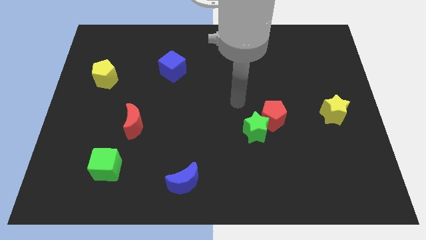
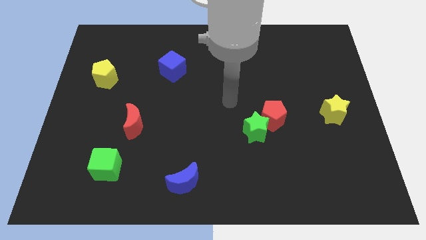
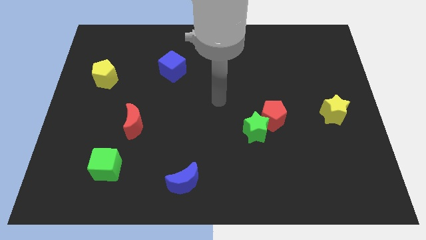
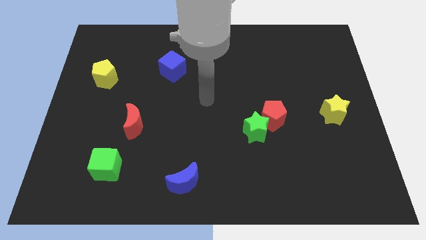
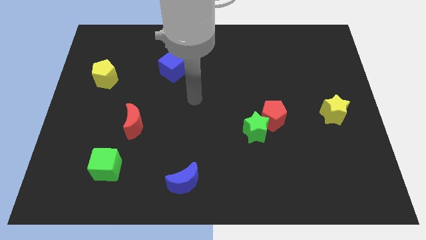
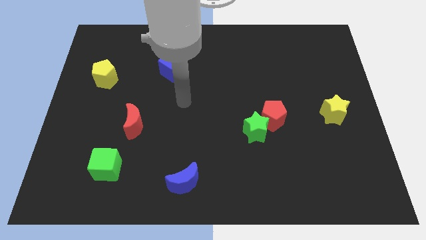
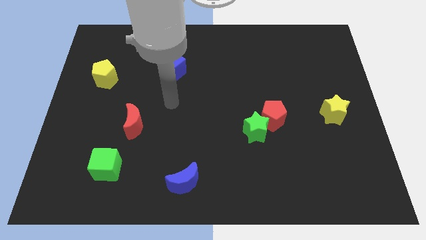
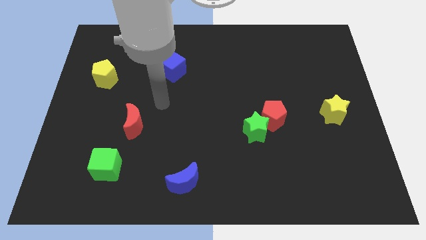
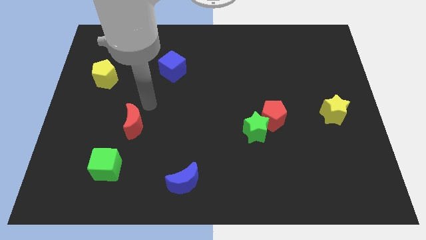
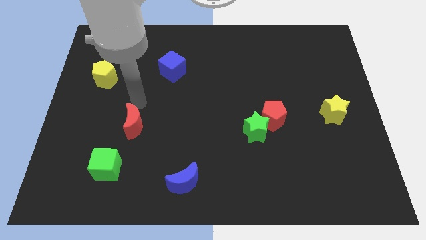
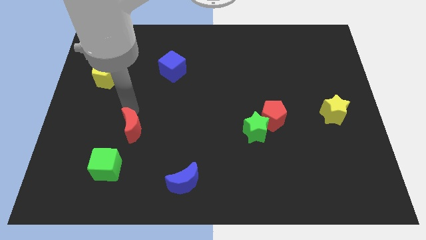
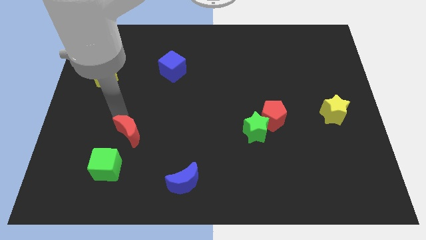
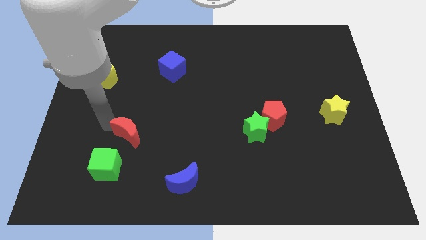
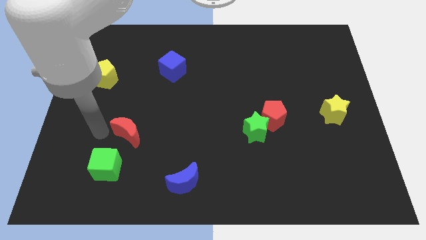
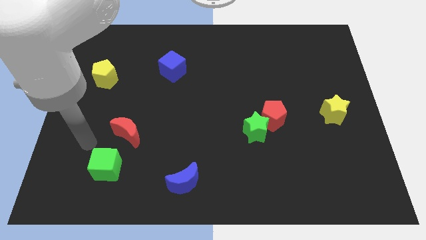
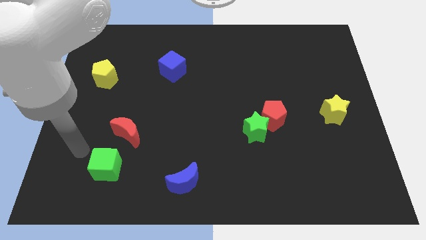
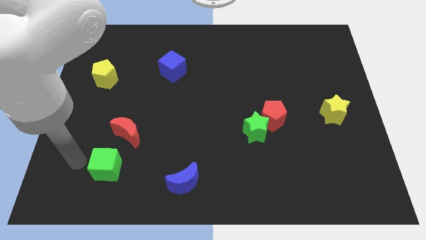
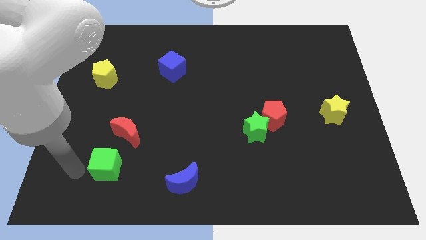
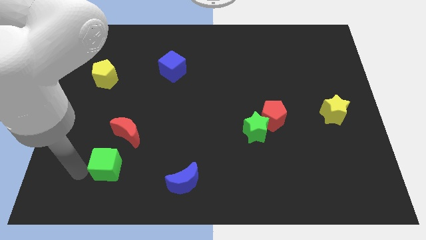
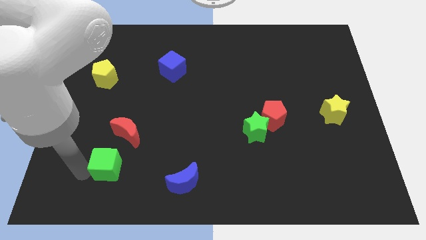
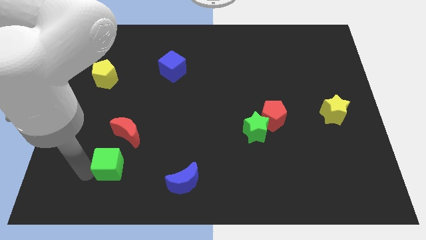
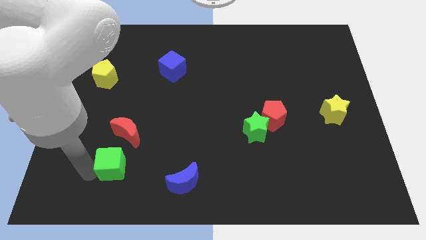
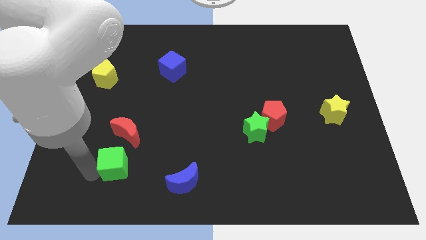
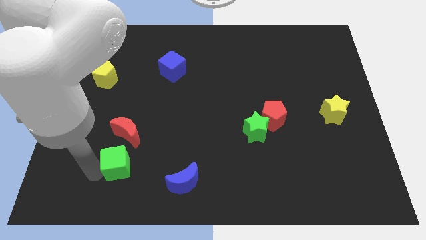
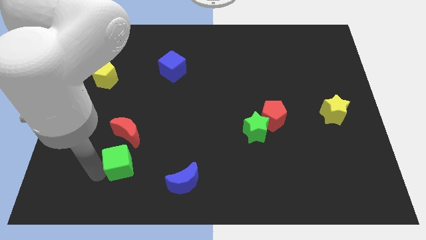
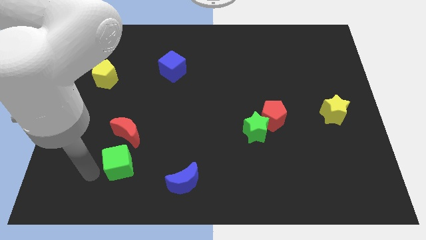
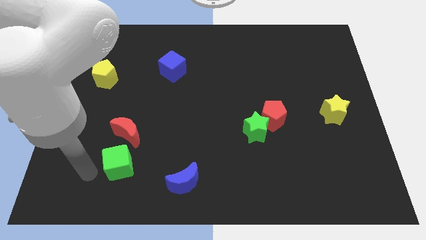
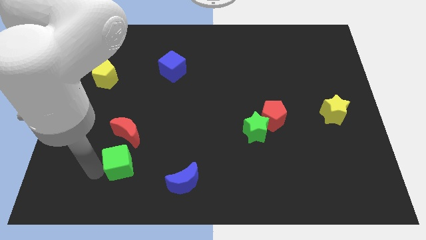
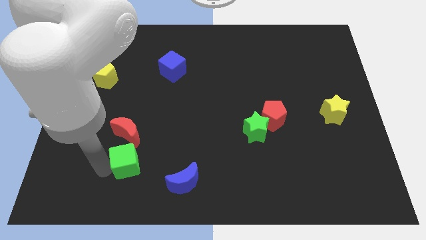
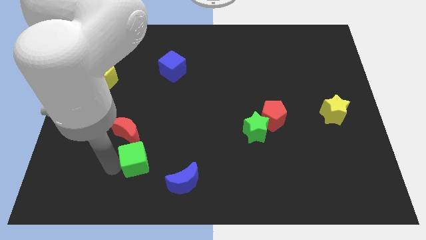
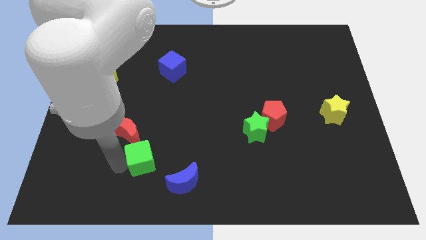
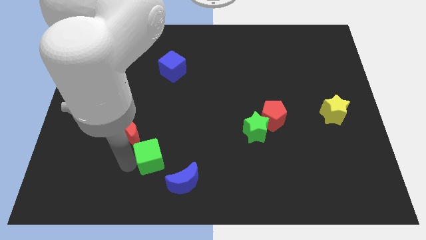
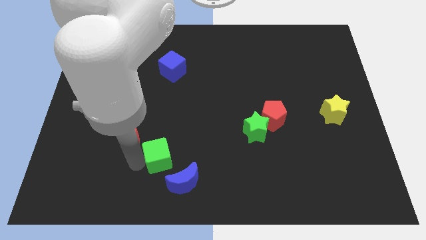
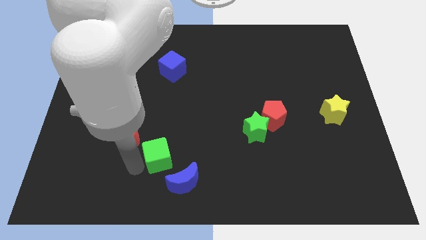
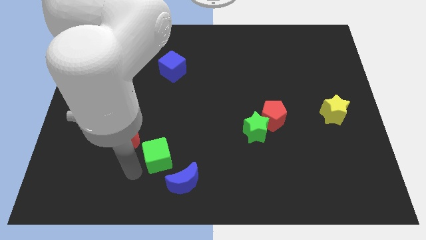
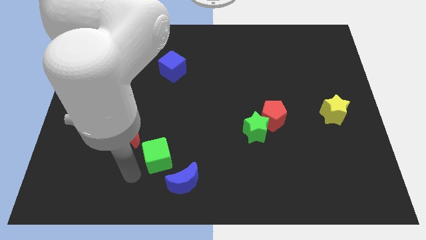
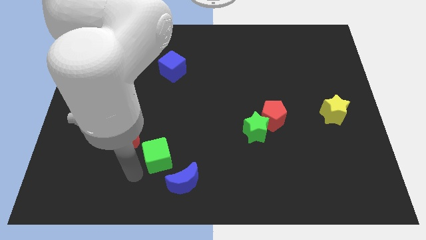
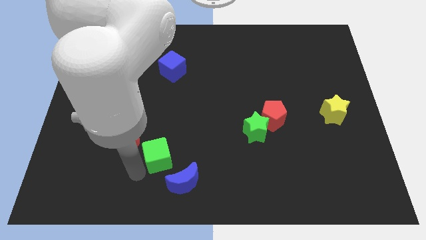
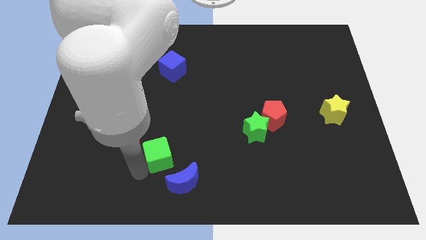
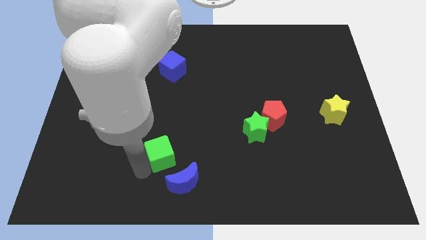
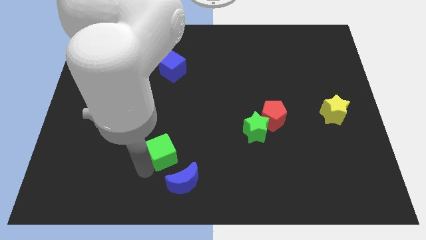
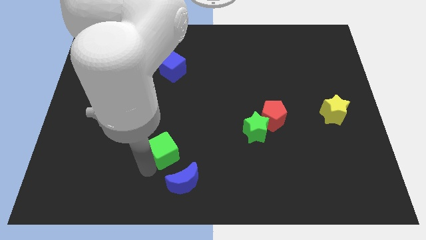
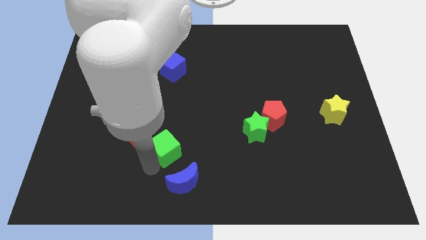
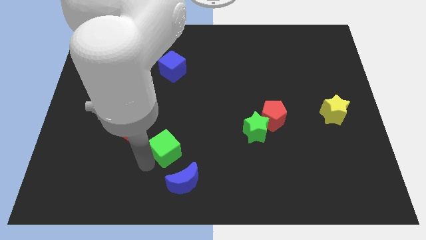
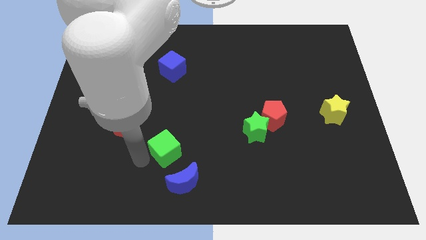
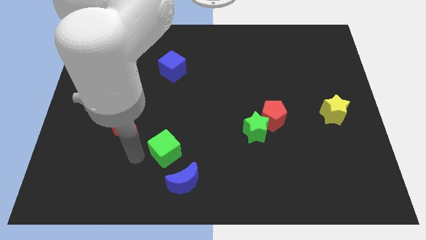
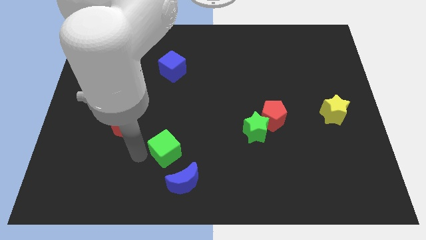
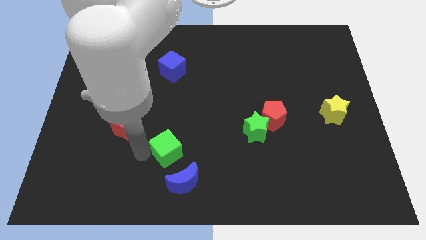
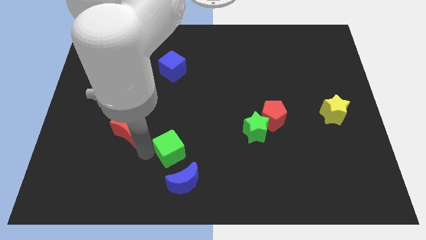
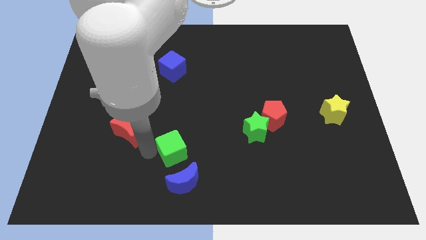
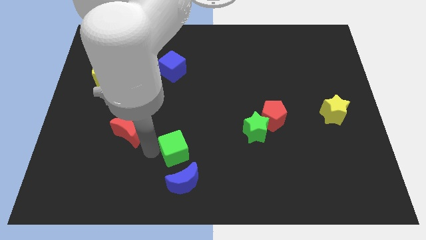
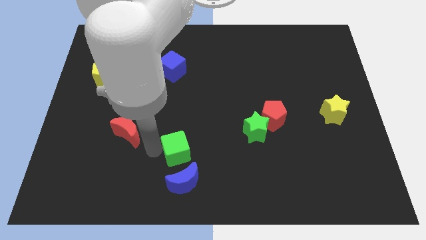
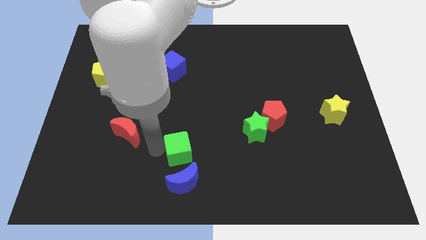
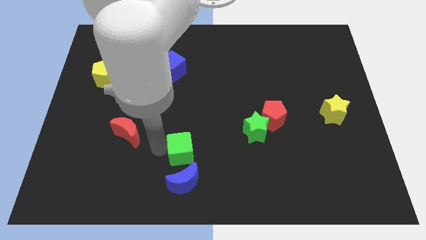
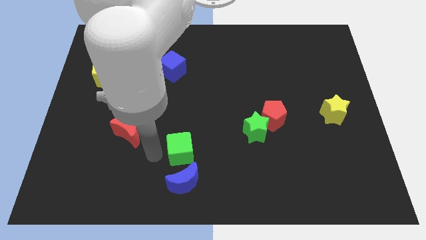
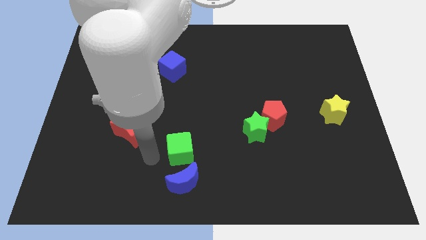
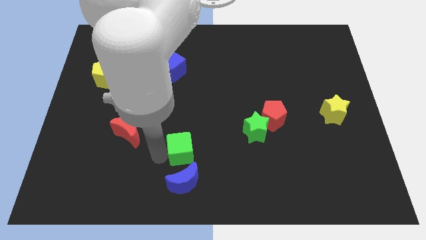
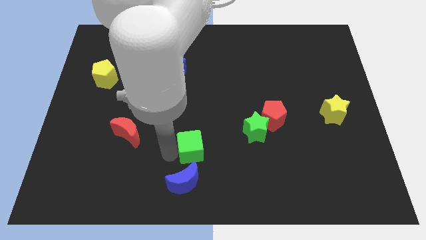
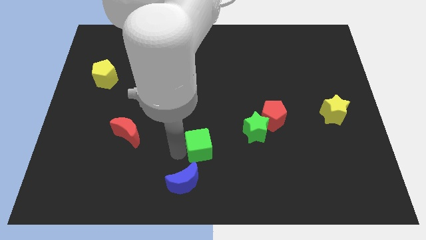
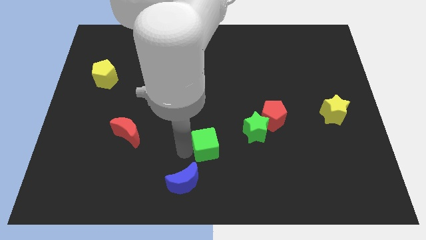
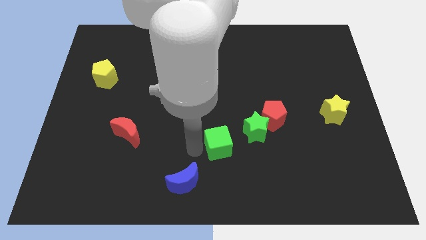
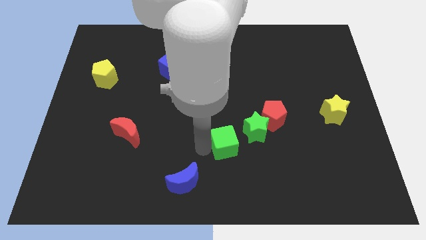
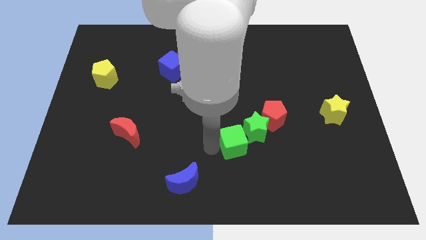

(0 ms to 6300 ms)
move the green cube to the bottom left of the red pentagon

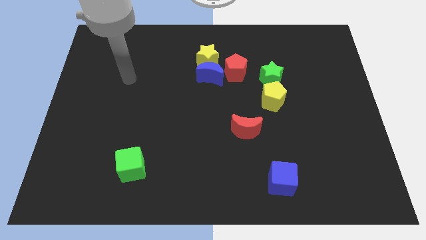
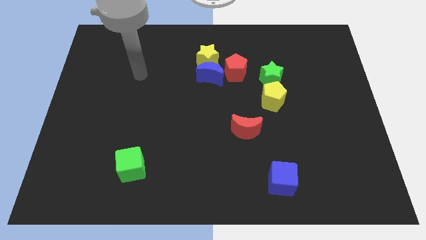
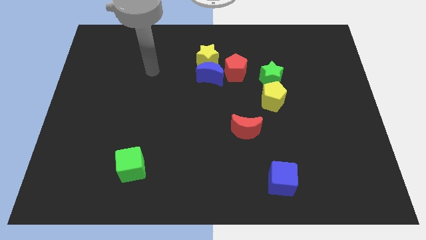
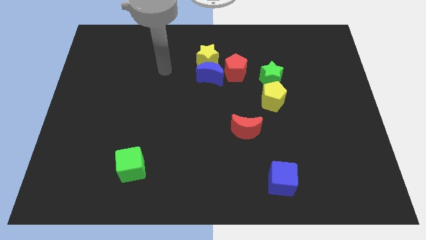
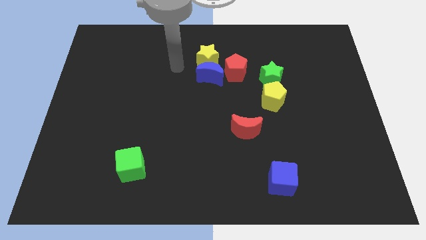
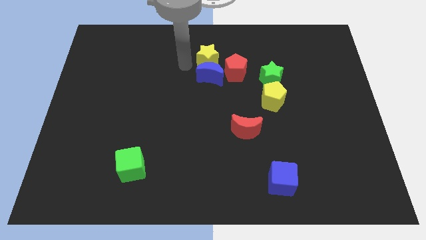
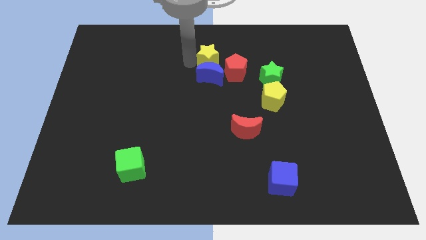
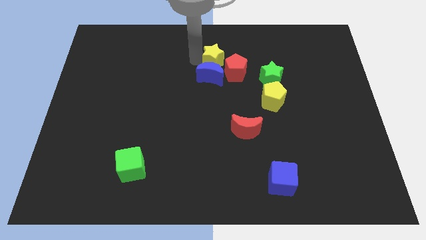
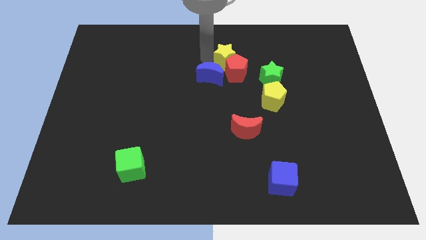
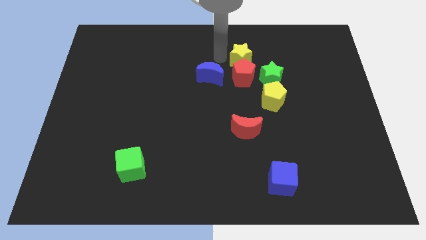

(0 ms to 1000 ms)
slide the red pentagon diagonally down and to the left of the green star
